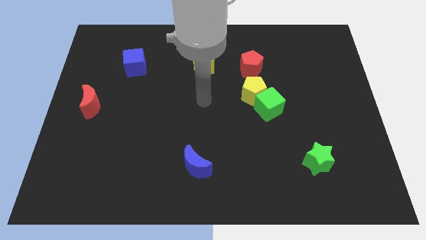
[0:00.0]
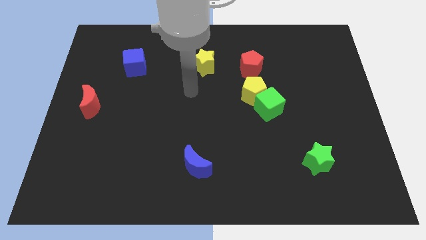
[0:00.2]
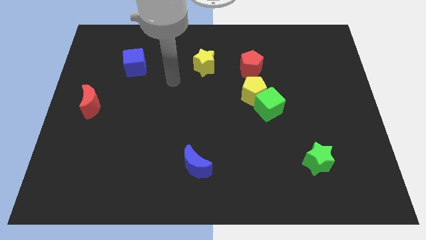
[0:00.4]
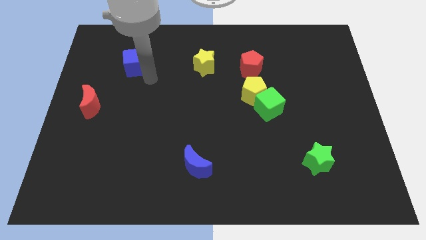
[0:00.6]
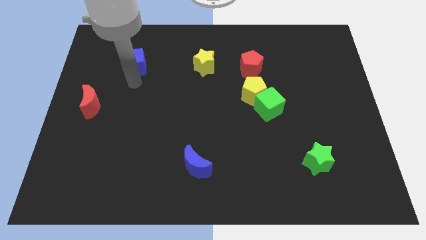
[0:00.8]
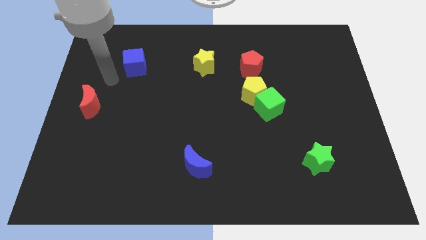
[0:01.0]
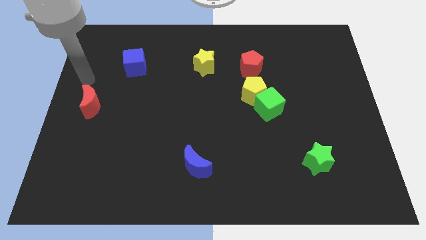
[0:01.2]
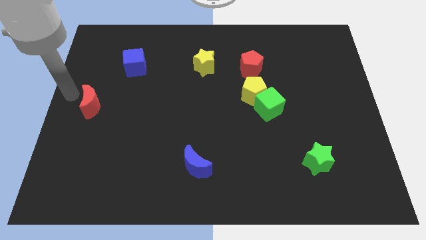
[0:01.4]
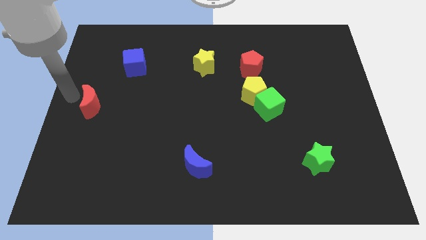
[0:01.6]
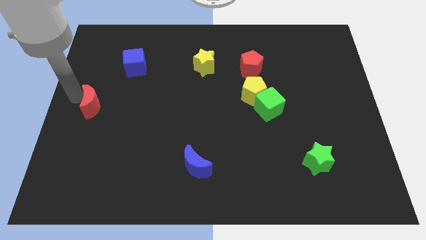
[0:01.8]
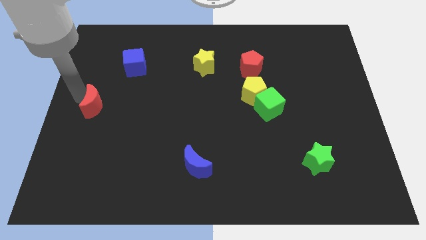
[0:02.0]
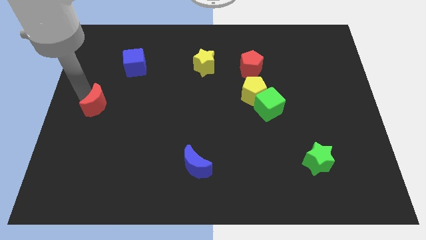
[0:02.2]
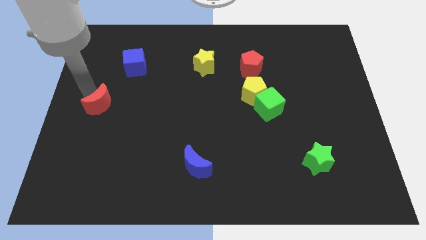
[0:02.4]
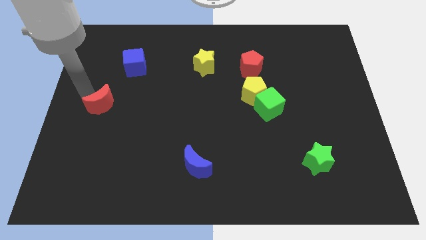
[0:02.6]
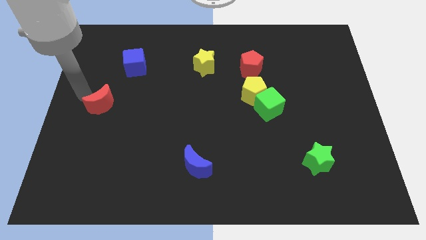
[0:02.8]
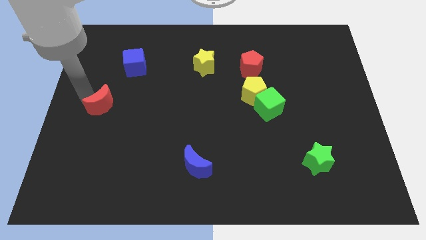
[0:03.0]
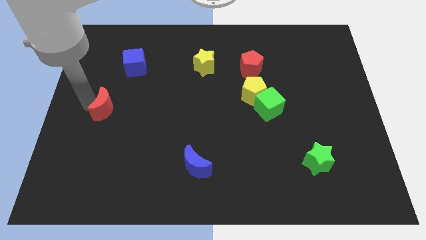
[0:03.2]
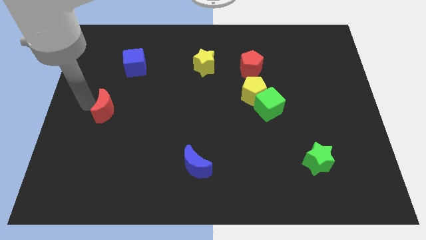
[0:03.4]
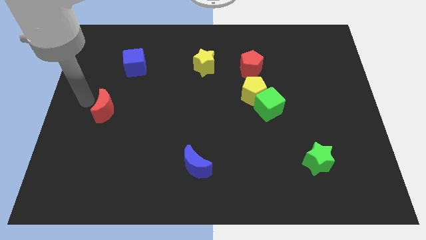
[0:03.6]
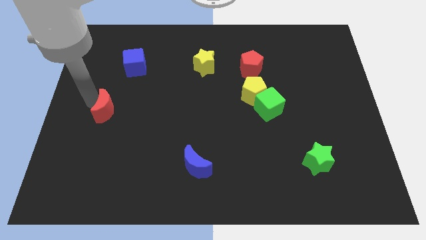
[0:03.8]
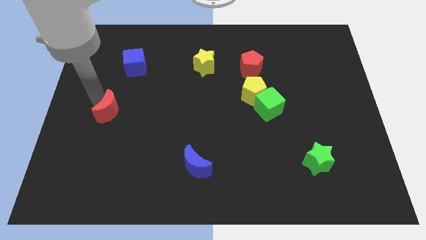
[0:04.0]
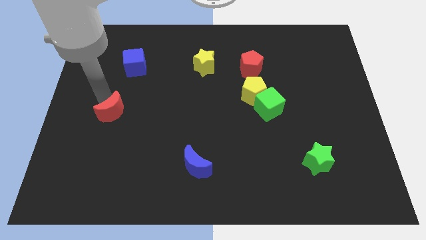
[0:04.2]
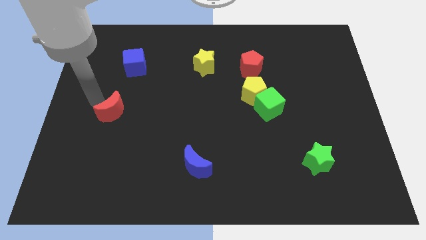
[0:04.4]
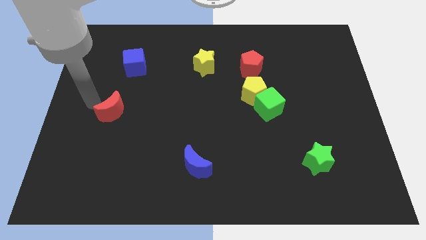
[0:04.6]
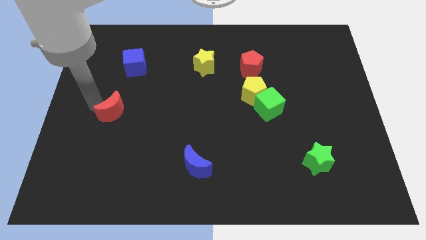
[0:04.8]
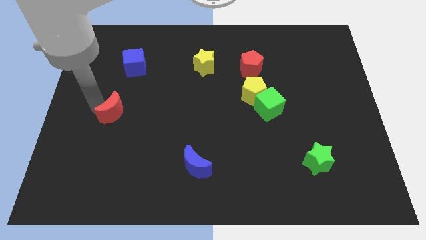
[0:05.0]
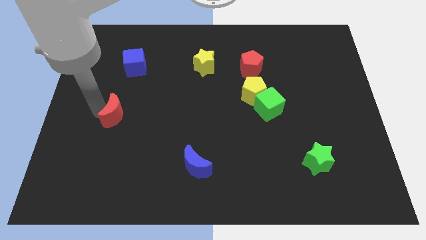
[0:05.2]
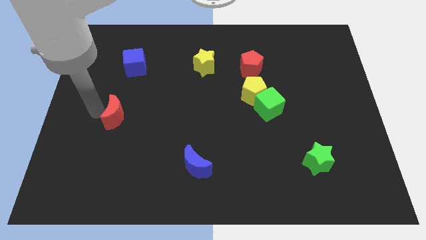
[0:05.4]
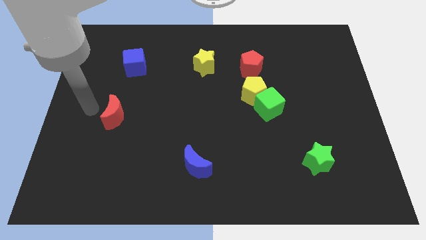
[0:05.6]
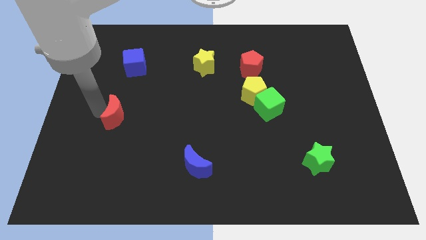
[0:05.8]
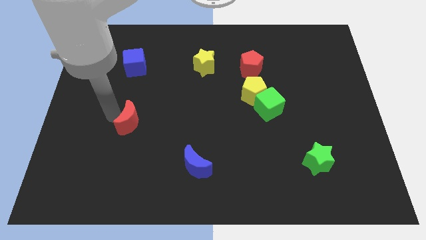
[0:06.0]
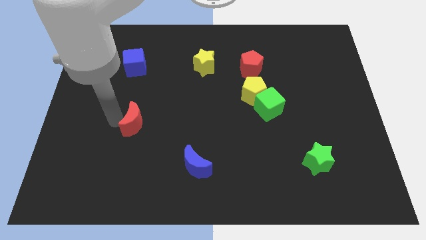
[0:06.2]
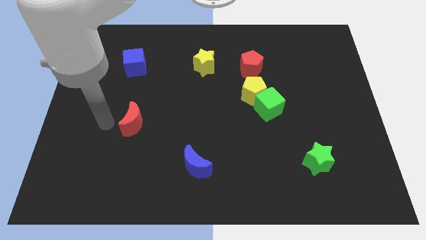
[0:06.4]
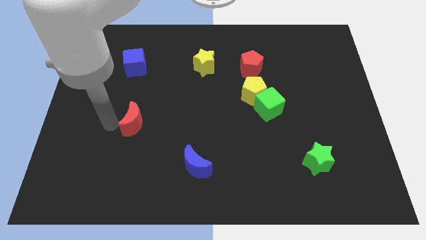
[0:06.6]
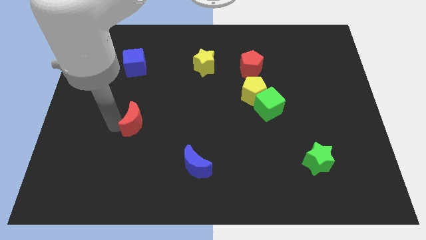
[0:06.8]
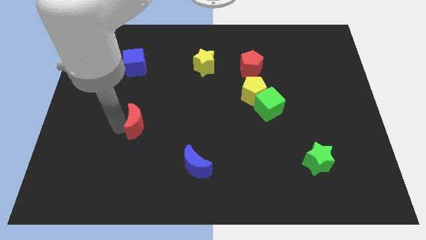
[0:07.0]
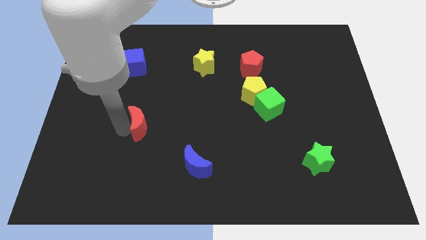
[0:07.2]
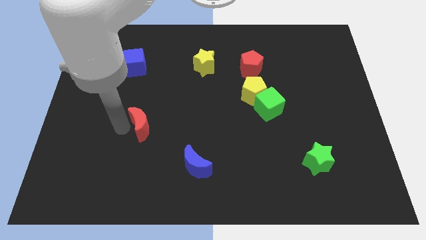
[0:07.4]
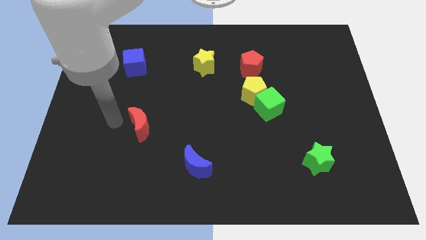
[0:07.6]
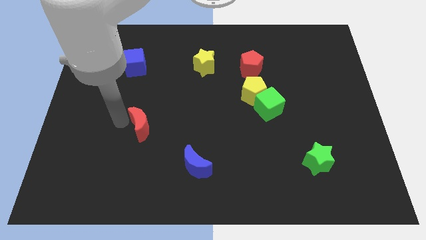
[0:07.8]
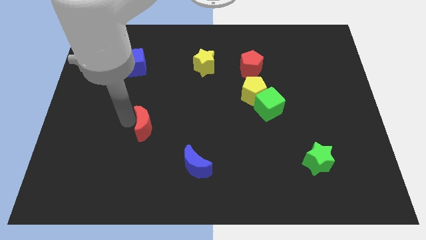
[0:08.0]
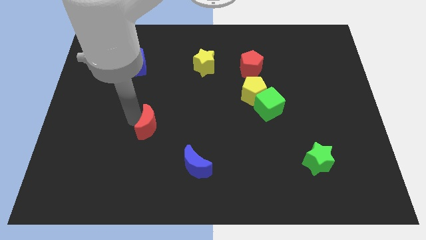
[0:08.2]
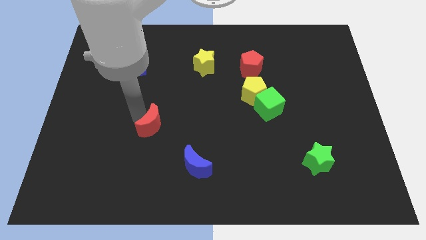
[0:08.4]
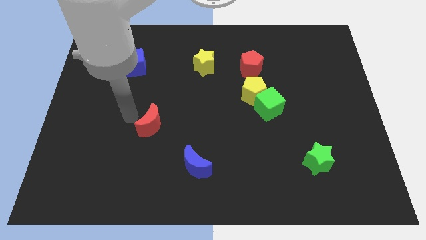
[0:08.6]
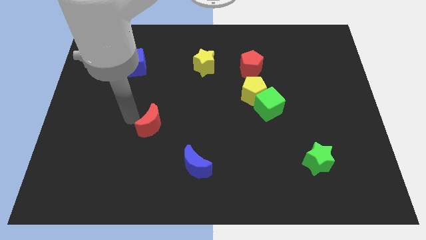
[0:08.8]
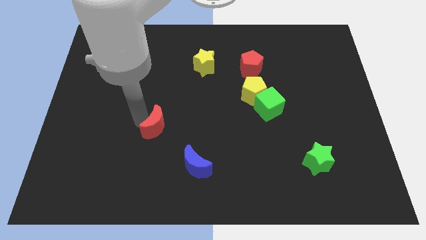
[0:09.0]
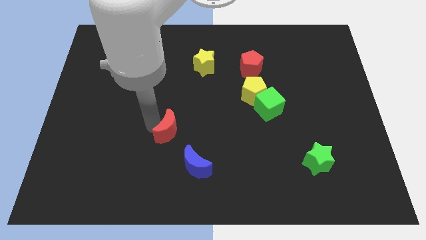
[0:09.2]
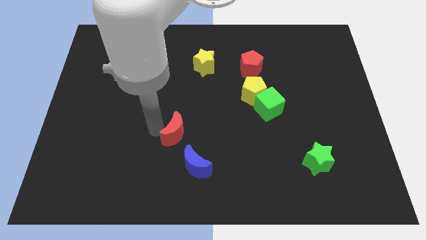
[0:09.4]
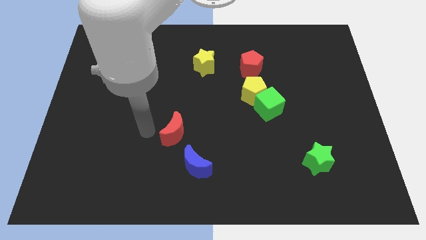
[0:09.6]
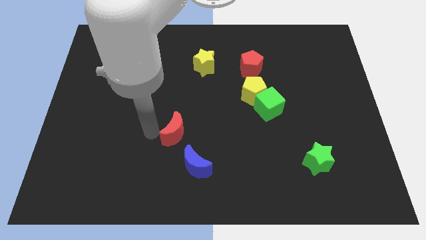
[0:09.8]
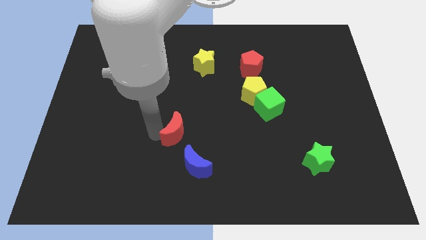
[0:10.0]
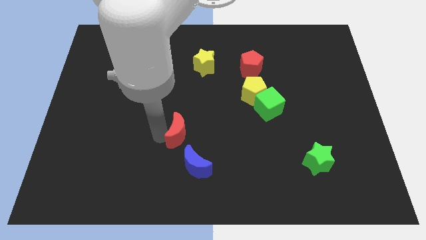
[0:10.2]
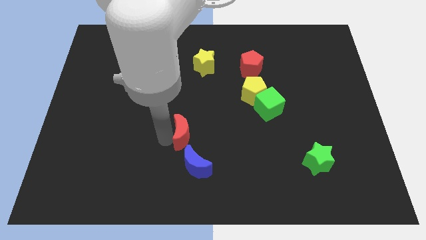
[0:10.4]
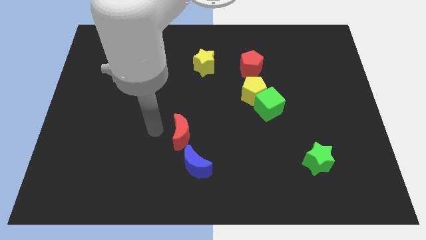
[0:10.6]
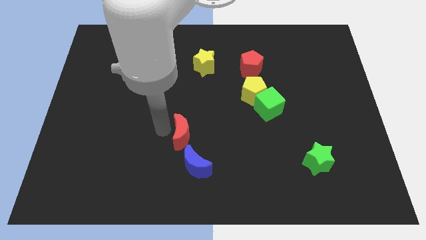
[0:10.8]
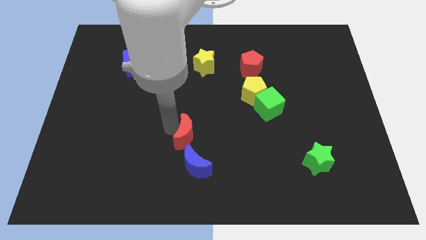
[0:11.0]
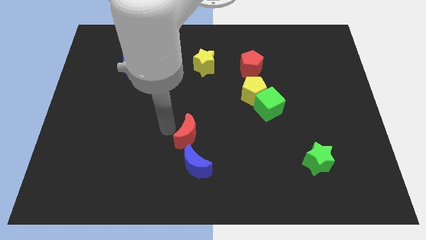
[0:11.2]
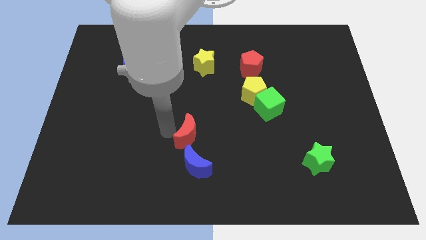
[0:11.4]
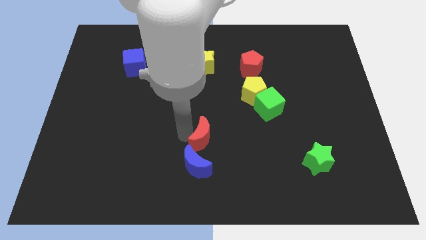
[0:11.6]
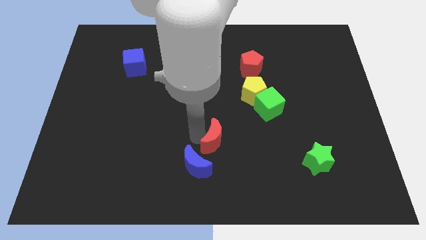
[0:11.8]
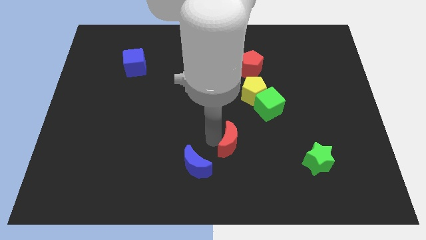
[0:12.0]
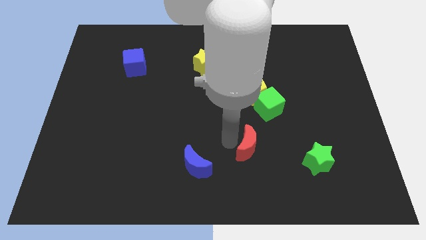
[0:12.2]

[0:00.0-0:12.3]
move the red moon left of the green star

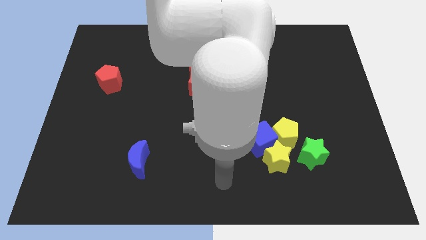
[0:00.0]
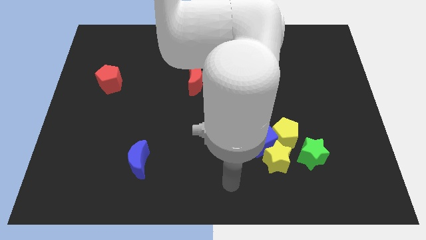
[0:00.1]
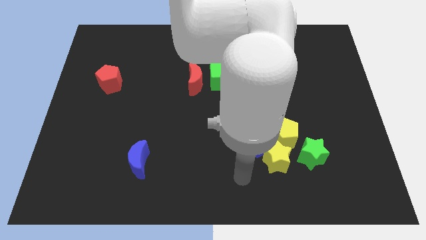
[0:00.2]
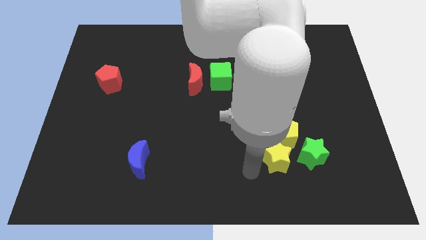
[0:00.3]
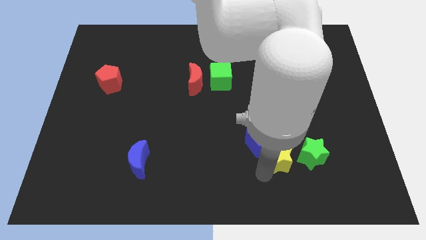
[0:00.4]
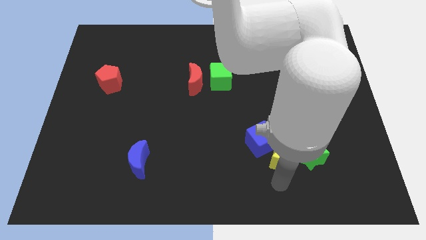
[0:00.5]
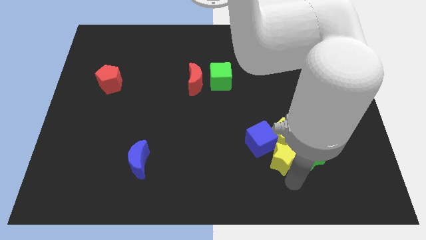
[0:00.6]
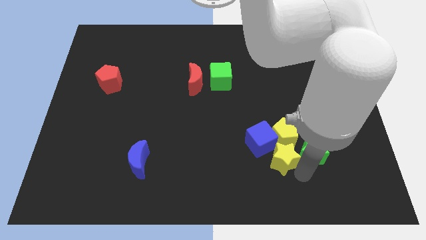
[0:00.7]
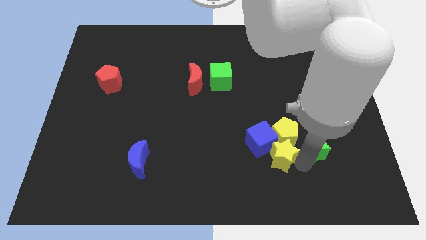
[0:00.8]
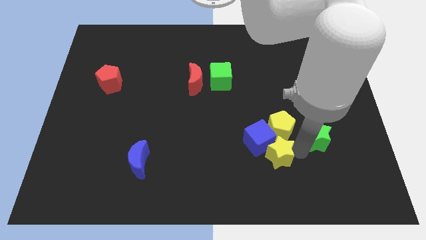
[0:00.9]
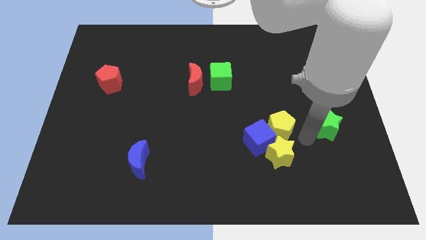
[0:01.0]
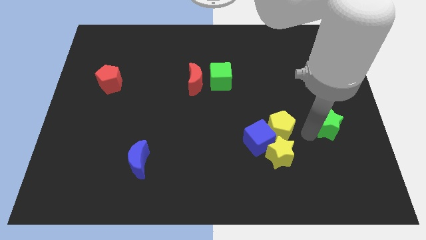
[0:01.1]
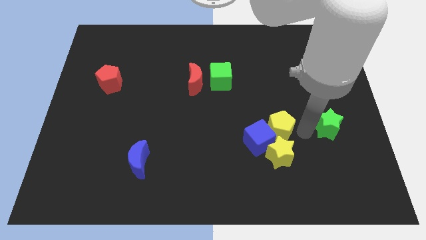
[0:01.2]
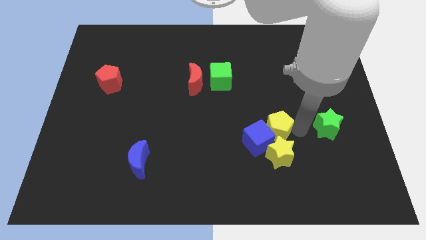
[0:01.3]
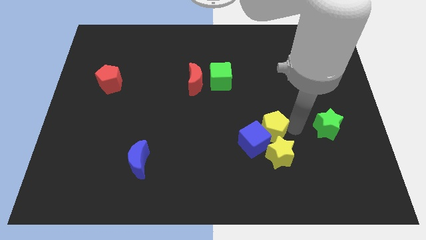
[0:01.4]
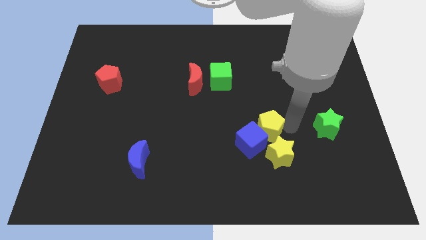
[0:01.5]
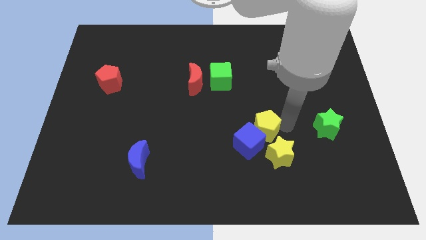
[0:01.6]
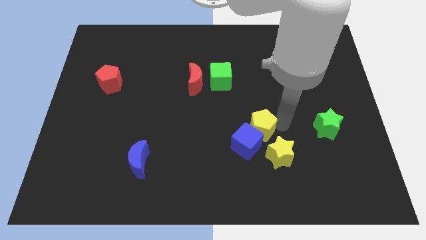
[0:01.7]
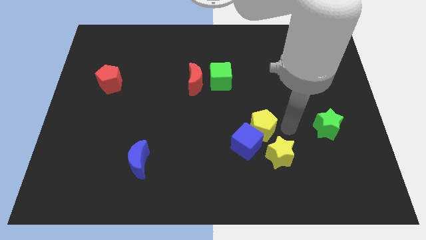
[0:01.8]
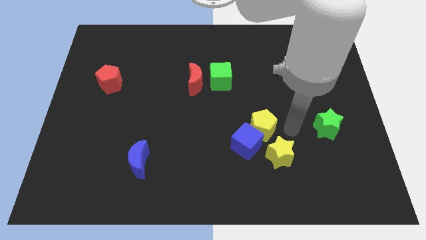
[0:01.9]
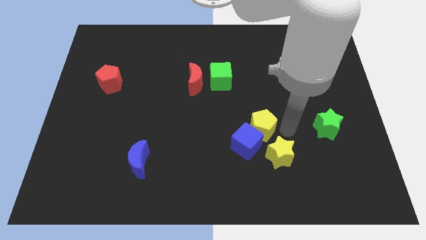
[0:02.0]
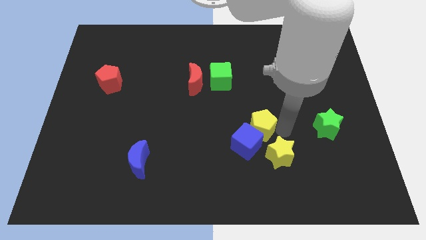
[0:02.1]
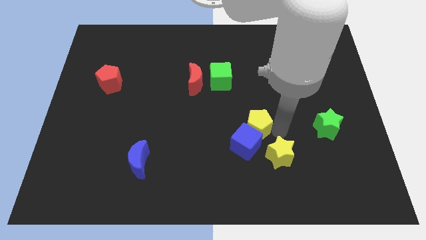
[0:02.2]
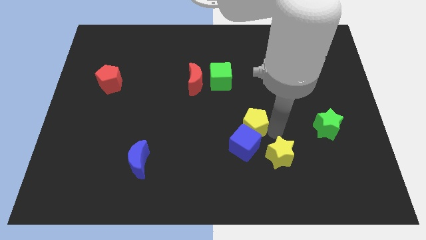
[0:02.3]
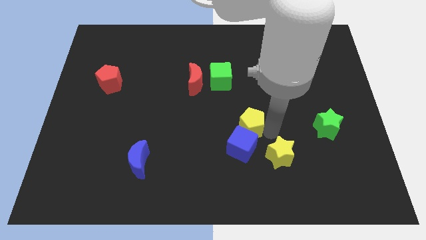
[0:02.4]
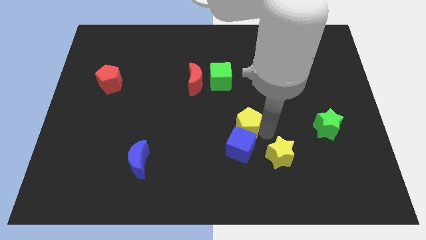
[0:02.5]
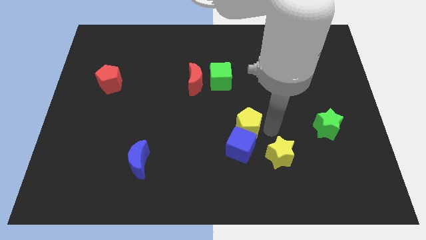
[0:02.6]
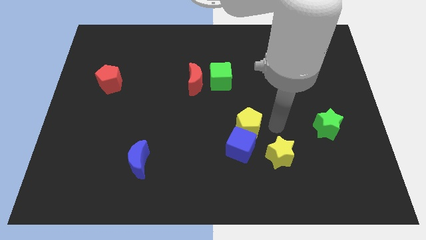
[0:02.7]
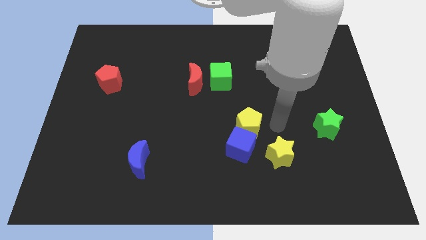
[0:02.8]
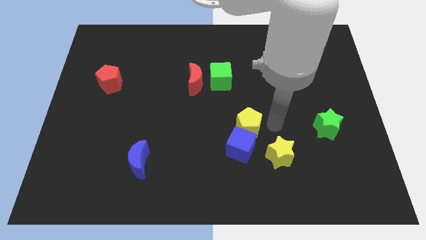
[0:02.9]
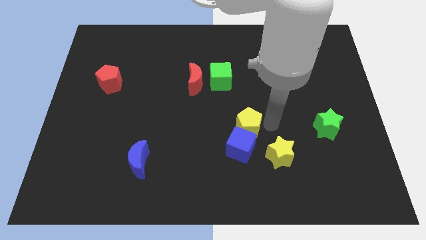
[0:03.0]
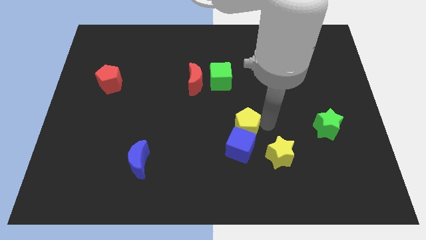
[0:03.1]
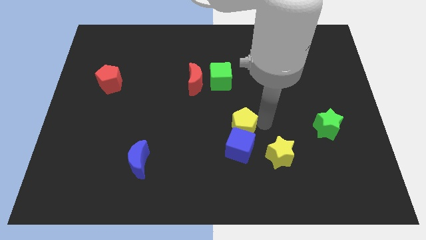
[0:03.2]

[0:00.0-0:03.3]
slide the yellow pentagon to the top left side of the blue cube
